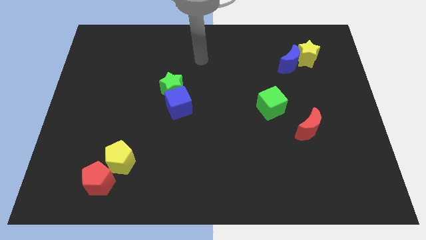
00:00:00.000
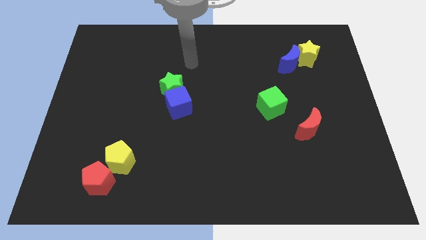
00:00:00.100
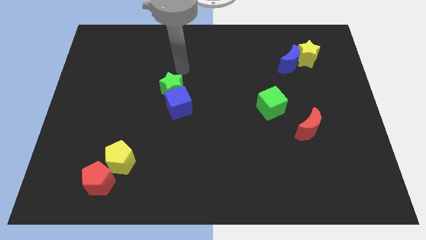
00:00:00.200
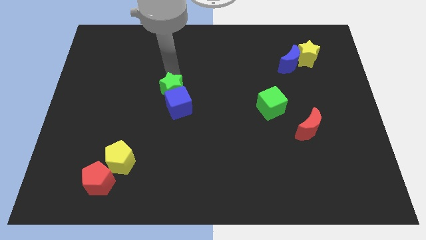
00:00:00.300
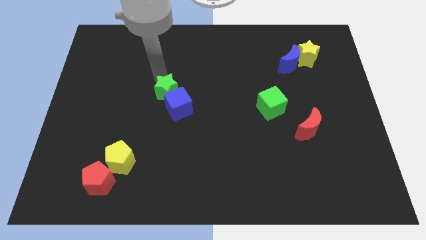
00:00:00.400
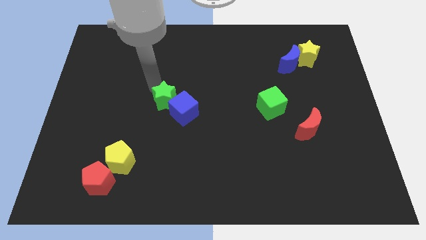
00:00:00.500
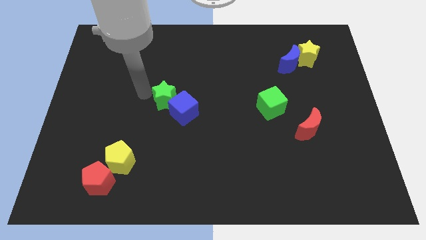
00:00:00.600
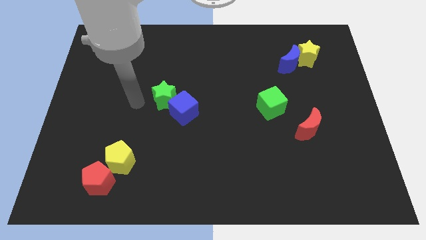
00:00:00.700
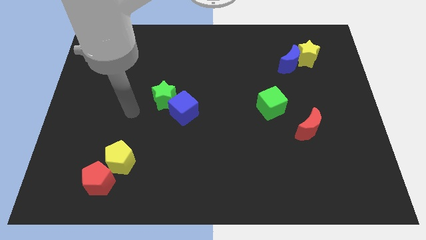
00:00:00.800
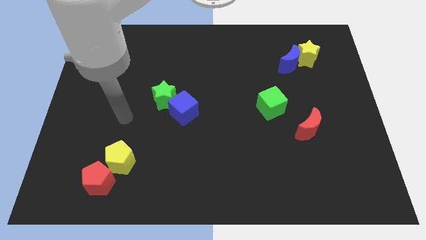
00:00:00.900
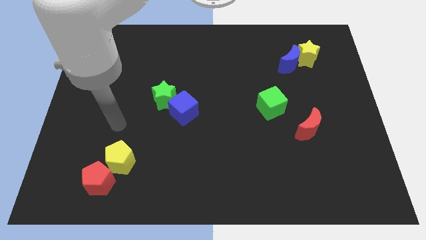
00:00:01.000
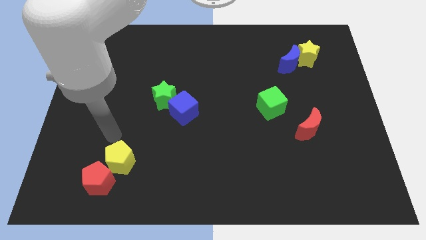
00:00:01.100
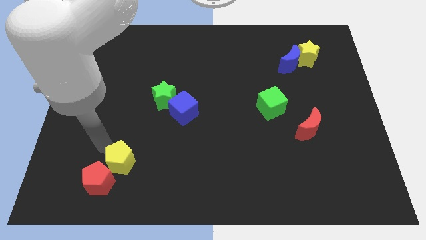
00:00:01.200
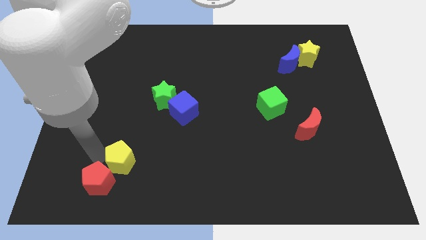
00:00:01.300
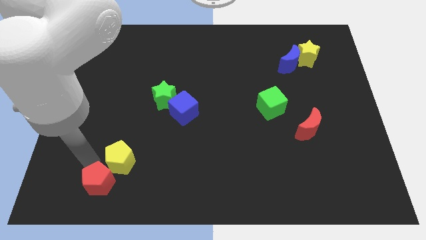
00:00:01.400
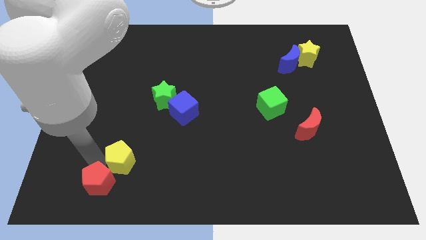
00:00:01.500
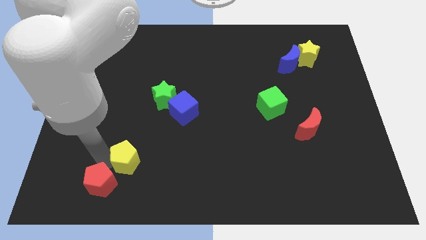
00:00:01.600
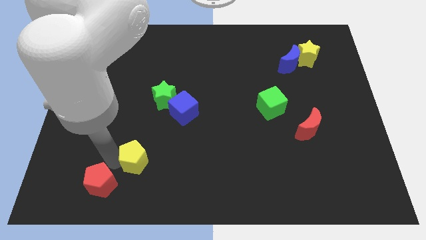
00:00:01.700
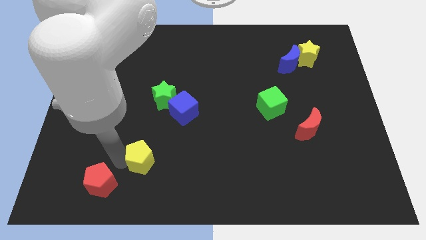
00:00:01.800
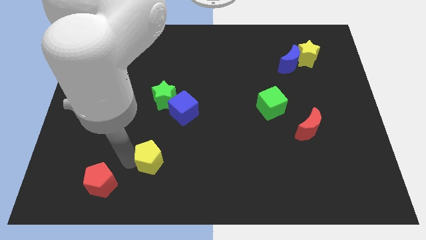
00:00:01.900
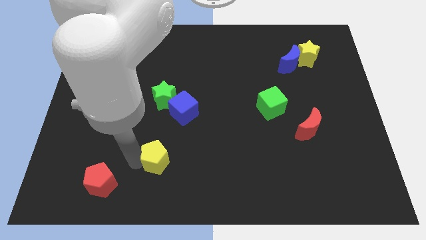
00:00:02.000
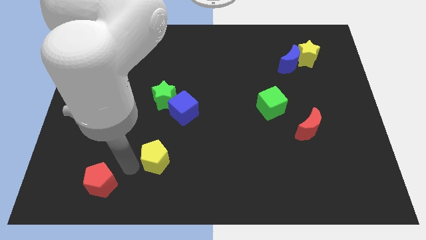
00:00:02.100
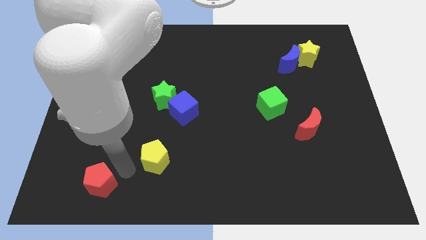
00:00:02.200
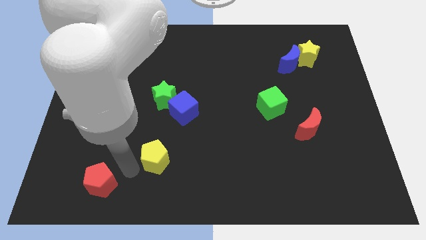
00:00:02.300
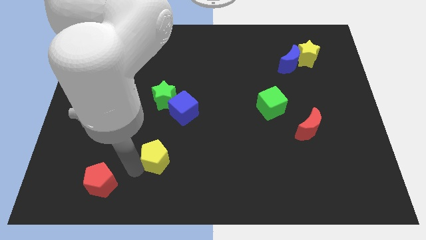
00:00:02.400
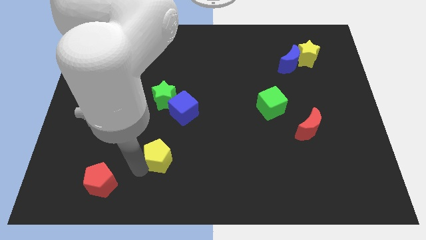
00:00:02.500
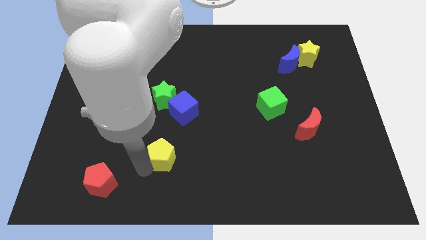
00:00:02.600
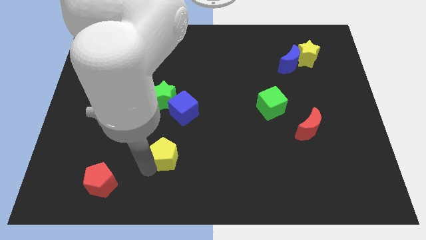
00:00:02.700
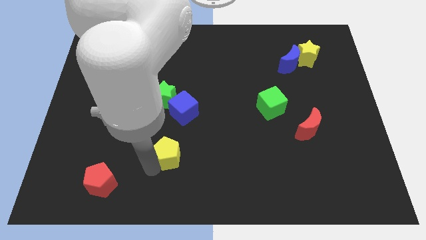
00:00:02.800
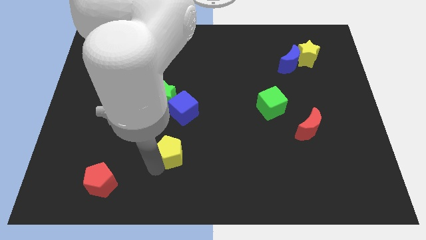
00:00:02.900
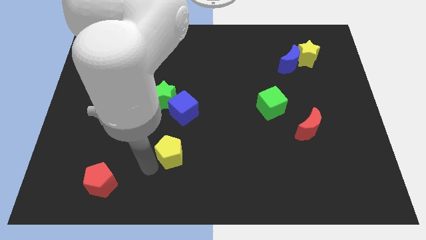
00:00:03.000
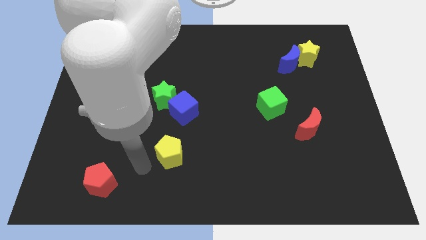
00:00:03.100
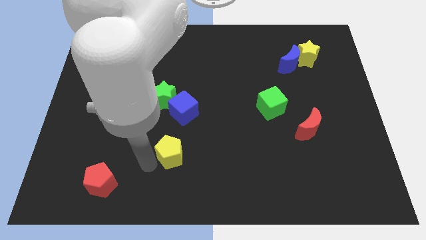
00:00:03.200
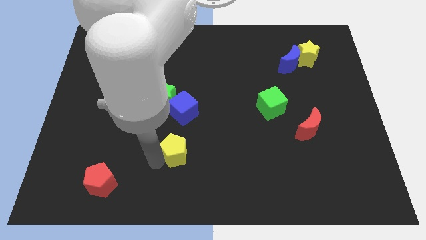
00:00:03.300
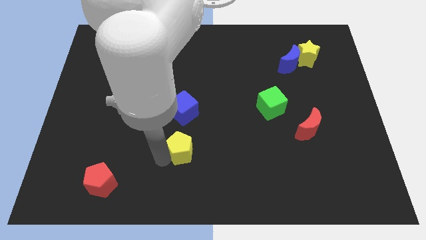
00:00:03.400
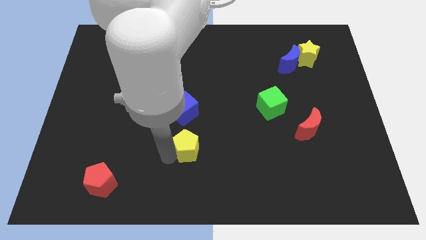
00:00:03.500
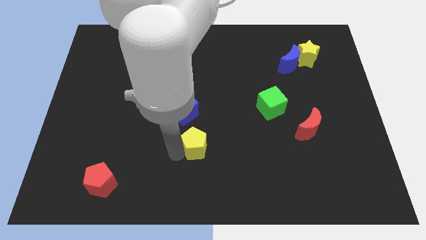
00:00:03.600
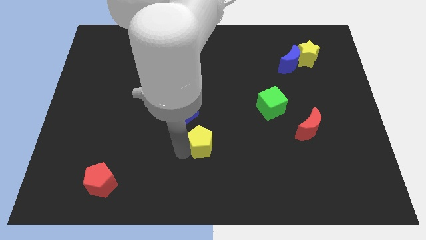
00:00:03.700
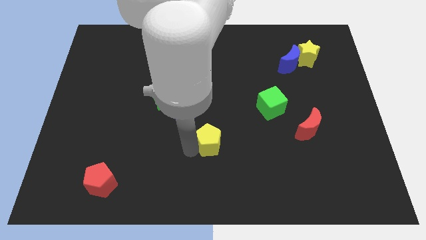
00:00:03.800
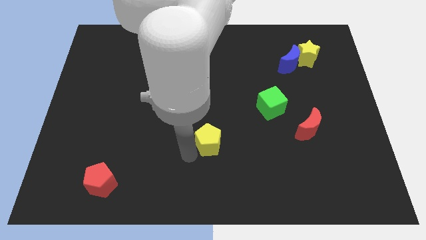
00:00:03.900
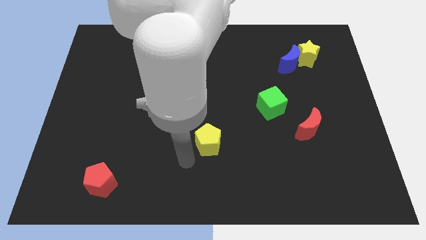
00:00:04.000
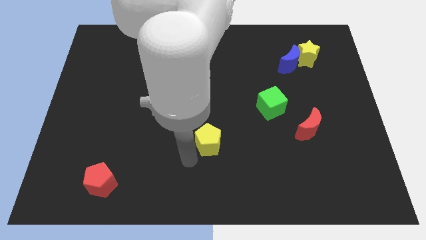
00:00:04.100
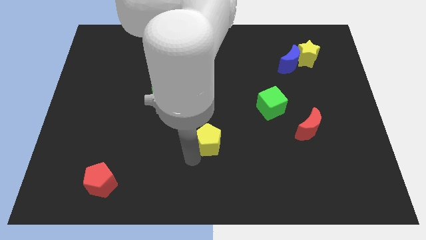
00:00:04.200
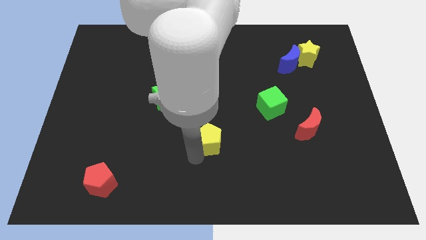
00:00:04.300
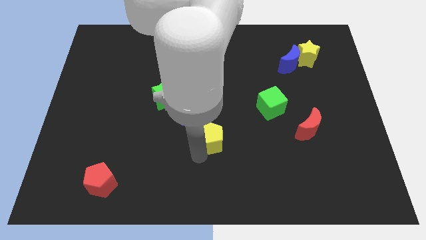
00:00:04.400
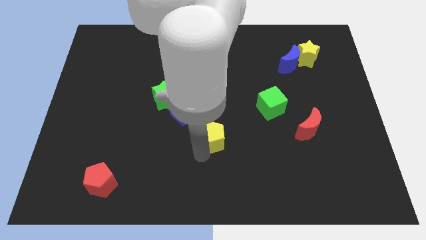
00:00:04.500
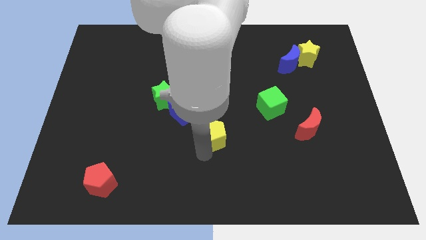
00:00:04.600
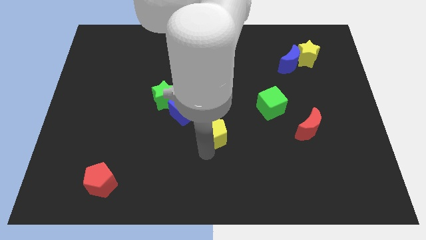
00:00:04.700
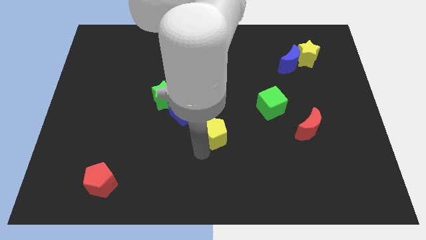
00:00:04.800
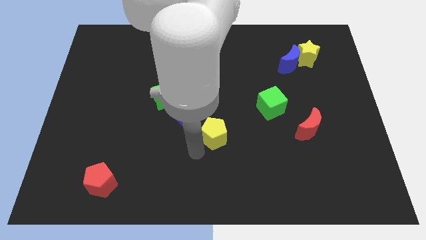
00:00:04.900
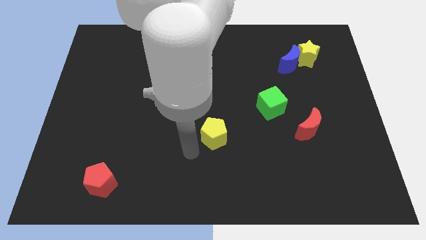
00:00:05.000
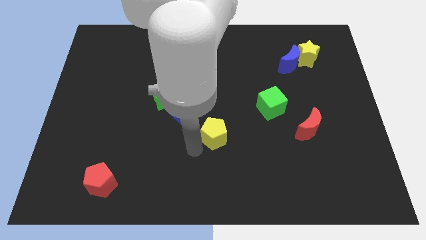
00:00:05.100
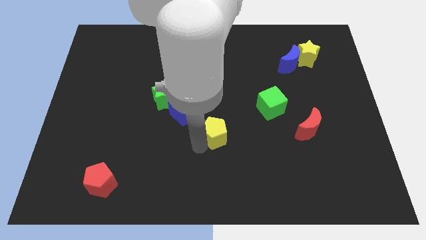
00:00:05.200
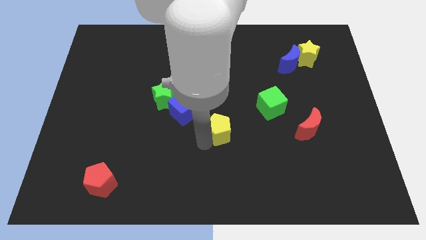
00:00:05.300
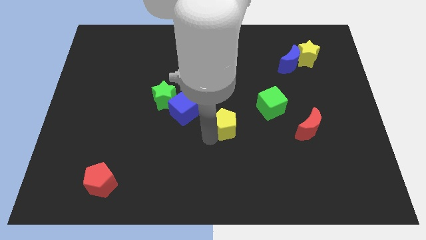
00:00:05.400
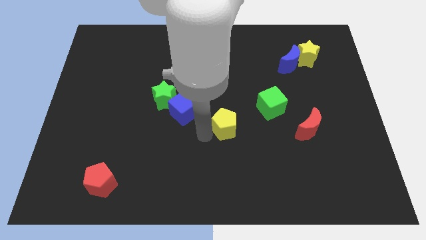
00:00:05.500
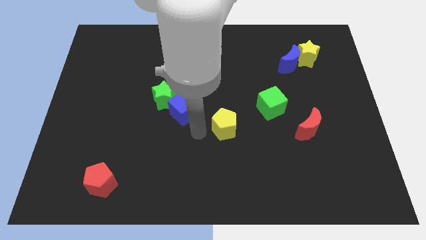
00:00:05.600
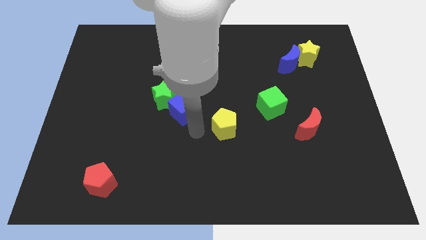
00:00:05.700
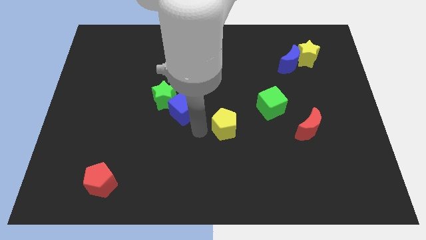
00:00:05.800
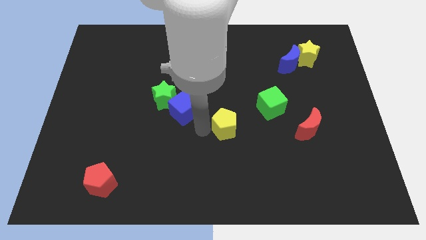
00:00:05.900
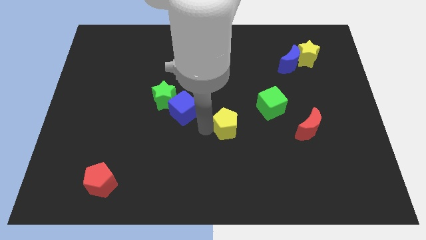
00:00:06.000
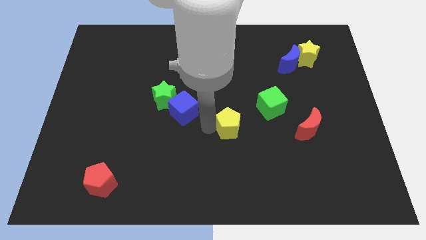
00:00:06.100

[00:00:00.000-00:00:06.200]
put the yellow pentagon to the bottom left side of the green cube

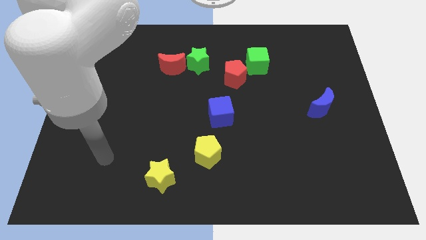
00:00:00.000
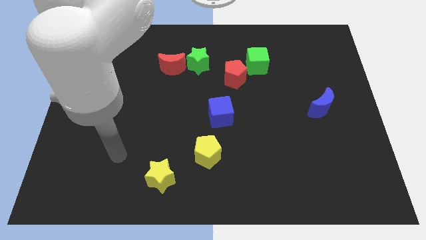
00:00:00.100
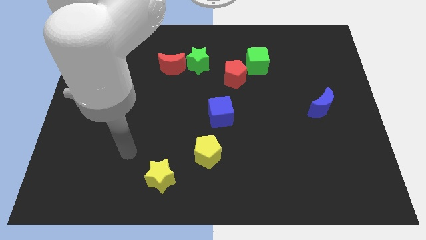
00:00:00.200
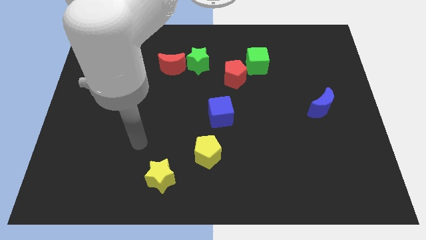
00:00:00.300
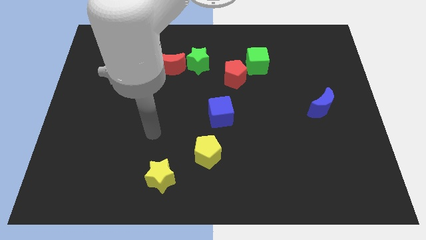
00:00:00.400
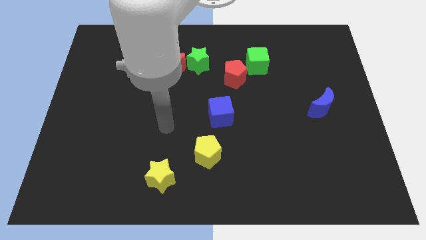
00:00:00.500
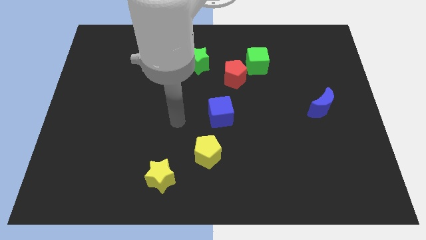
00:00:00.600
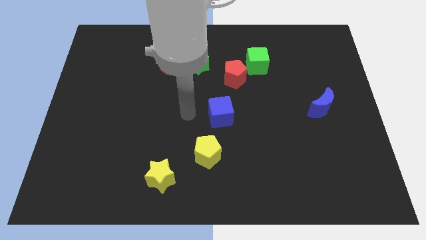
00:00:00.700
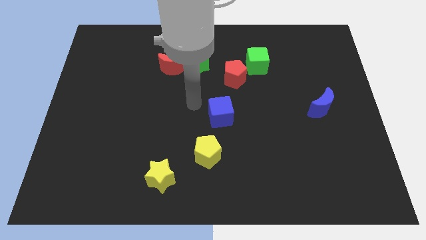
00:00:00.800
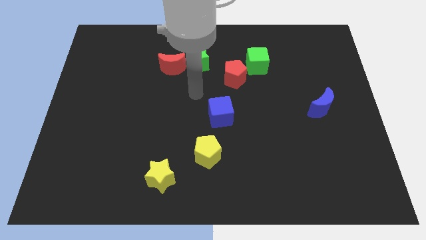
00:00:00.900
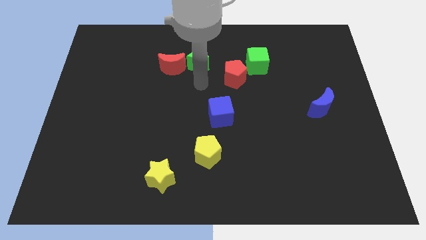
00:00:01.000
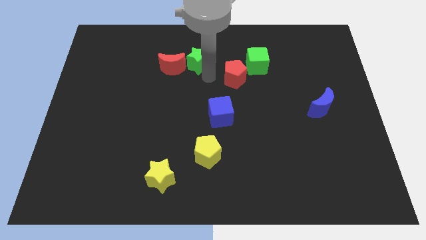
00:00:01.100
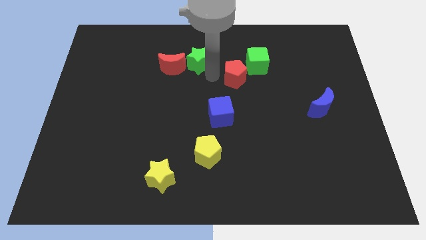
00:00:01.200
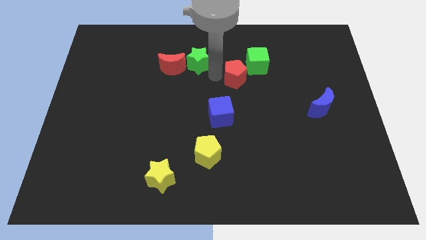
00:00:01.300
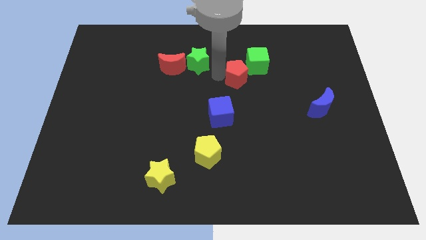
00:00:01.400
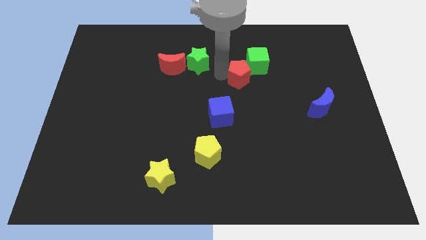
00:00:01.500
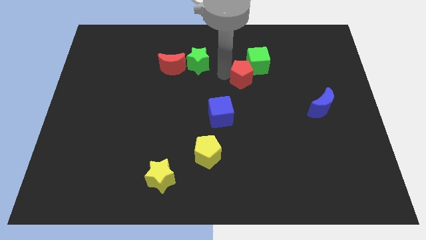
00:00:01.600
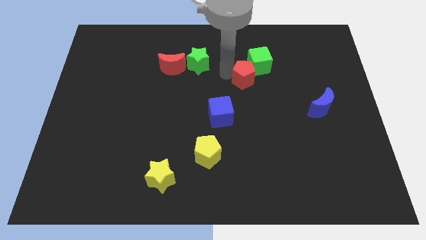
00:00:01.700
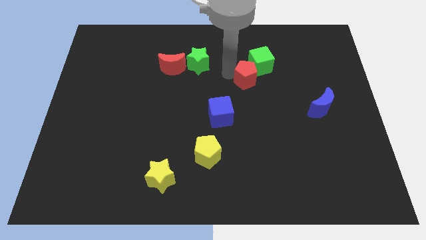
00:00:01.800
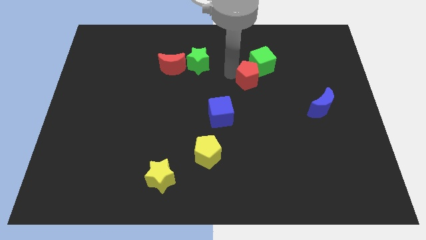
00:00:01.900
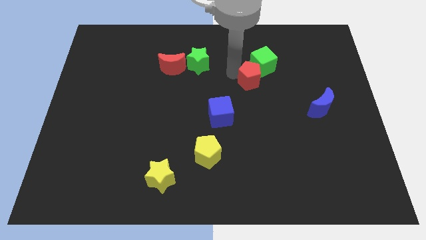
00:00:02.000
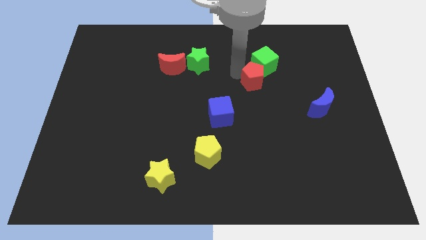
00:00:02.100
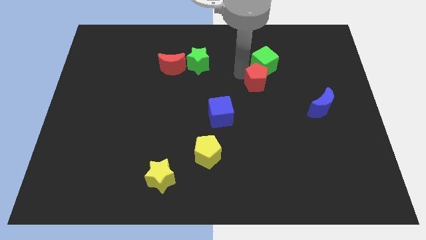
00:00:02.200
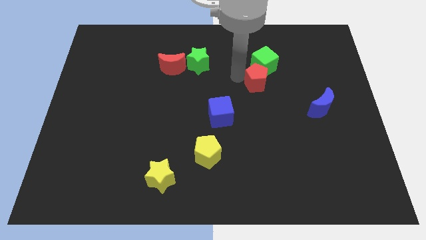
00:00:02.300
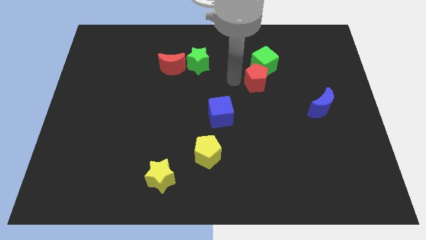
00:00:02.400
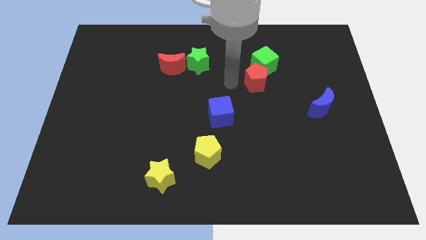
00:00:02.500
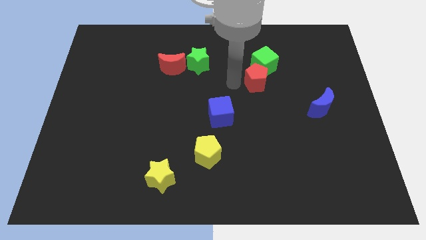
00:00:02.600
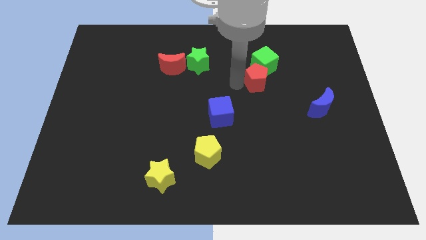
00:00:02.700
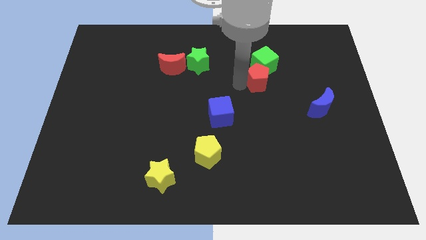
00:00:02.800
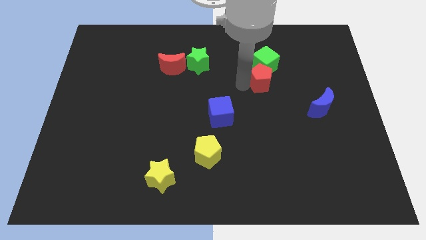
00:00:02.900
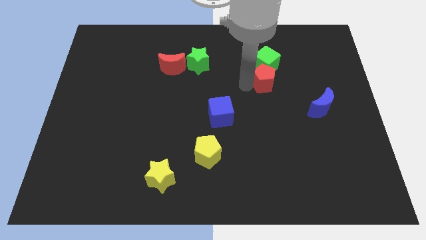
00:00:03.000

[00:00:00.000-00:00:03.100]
slide the red pentagon to the bottom right of the green cube
